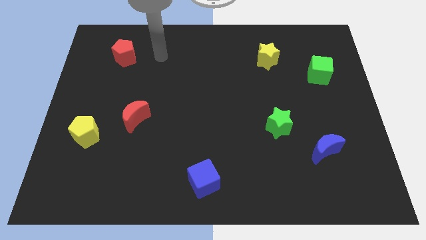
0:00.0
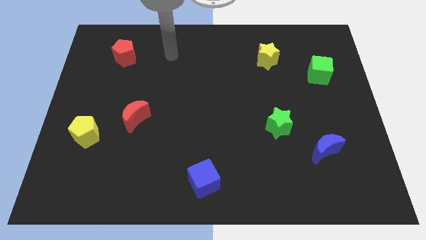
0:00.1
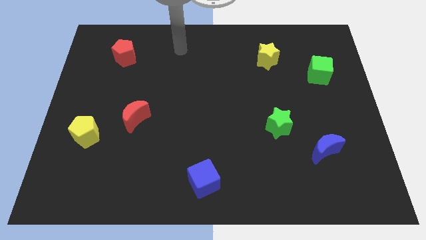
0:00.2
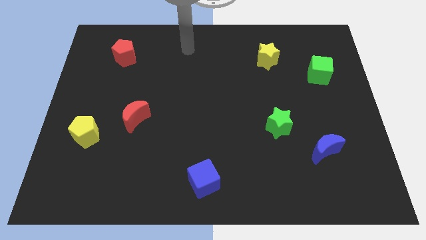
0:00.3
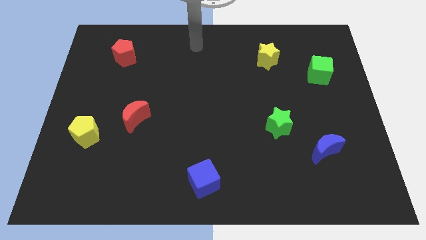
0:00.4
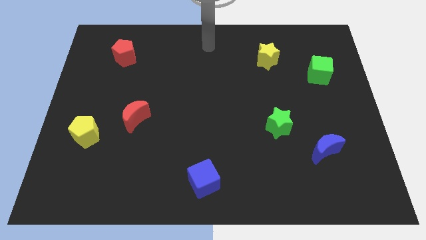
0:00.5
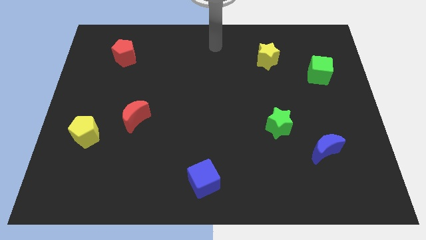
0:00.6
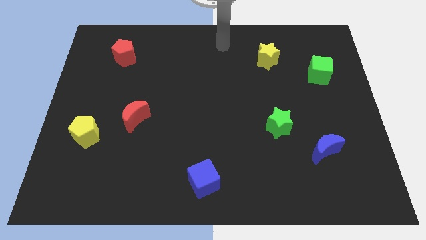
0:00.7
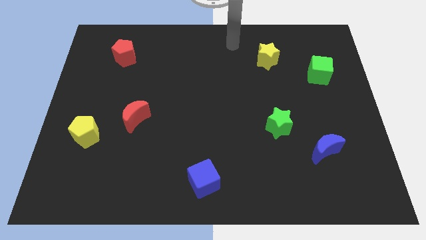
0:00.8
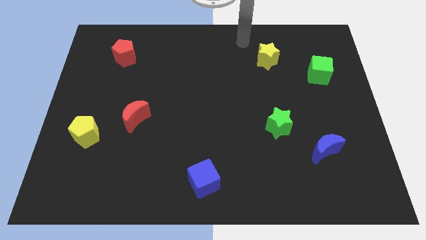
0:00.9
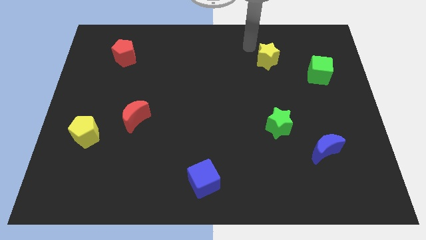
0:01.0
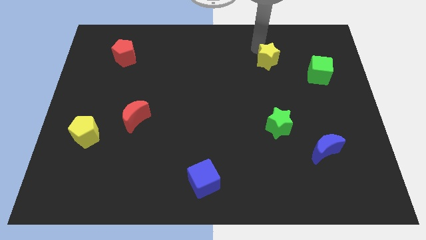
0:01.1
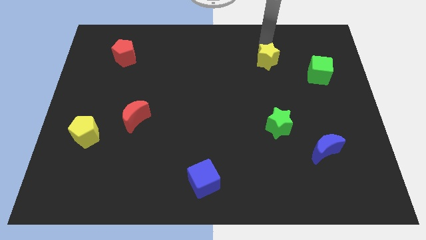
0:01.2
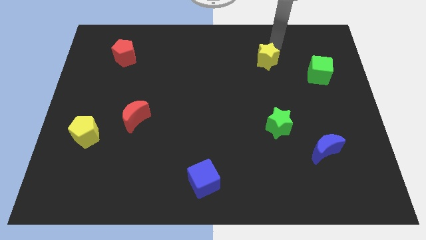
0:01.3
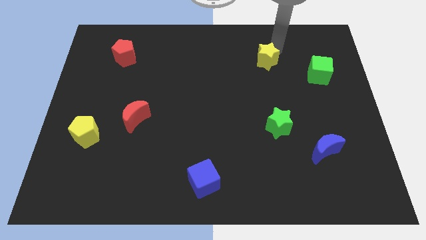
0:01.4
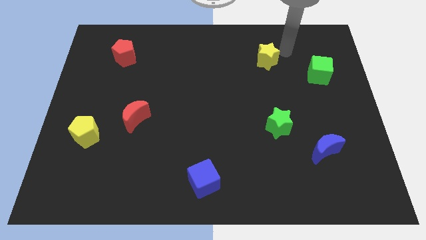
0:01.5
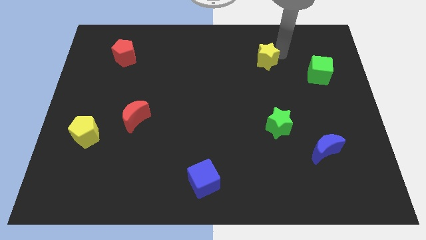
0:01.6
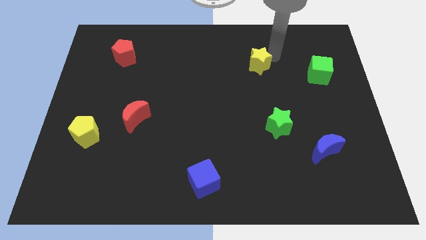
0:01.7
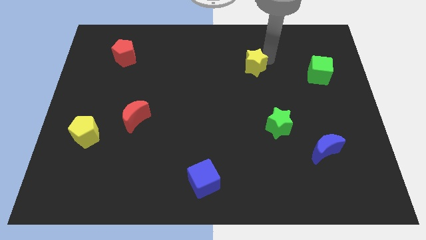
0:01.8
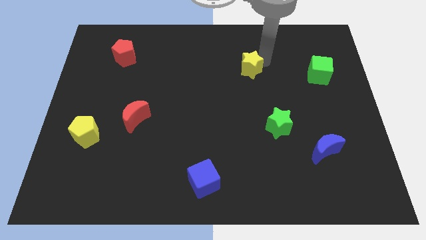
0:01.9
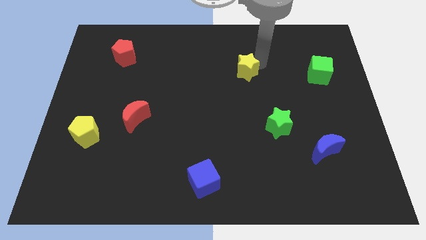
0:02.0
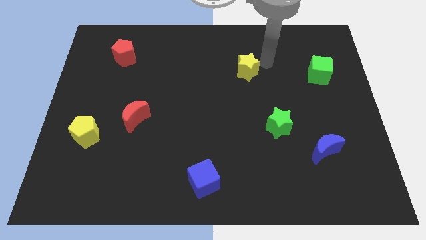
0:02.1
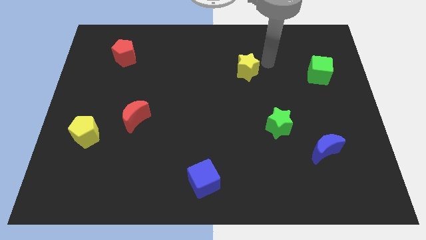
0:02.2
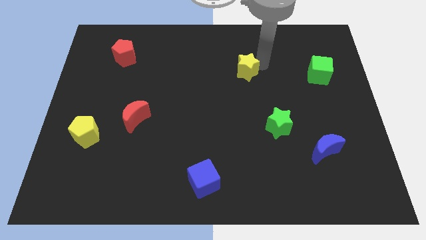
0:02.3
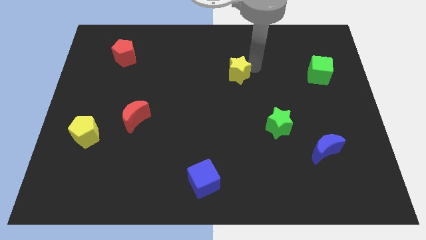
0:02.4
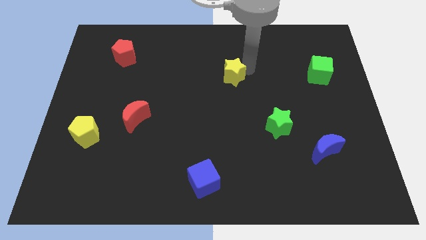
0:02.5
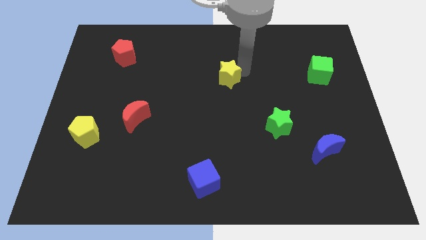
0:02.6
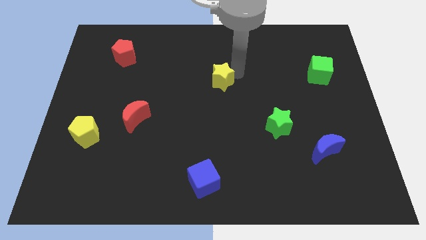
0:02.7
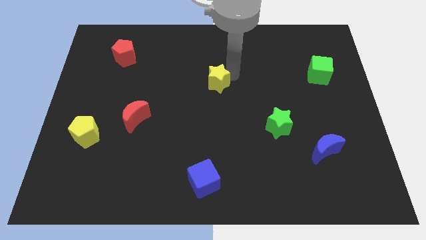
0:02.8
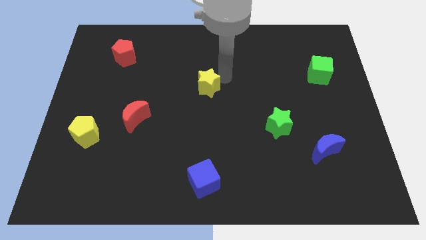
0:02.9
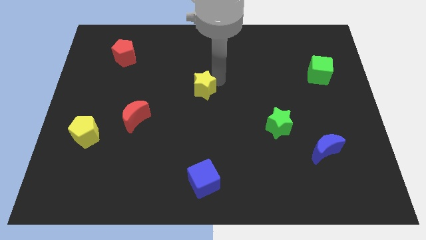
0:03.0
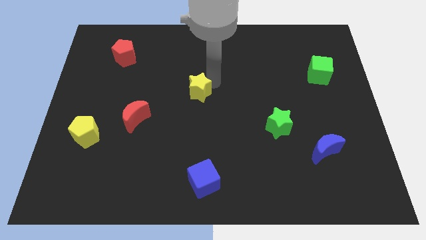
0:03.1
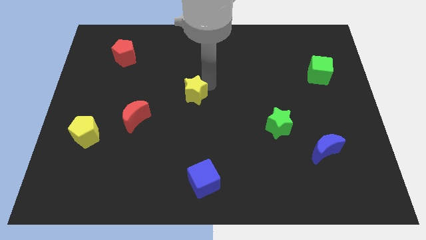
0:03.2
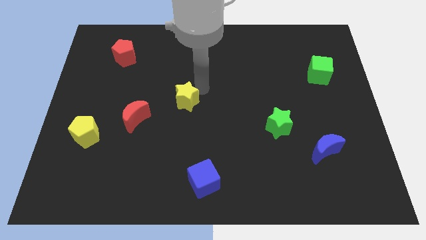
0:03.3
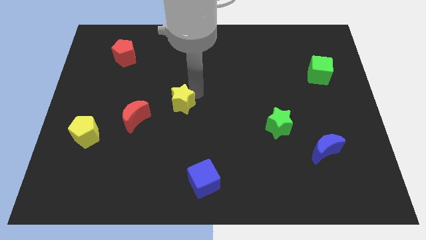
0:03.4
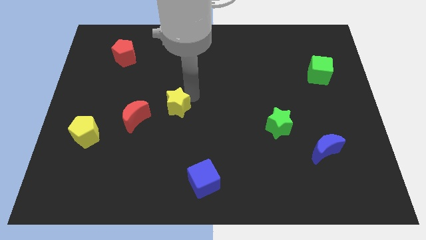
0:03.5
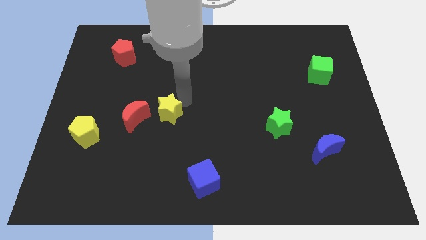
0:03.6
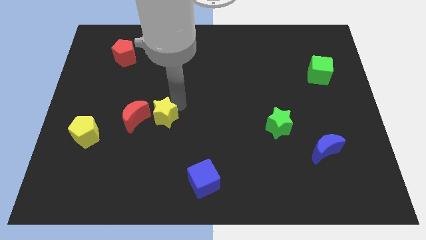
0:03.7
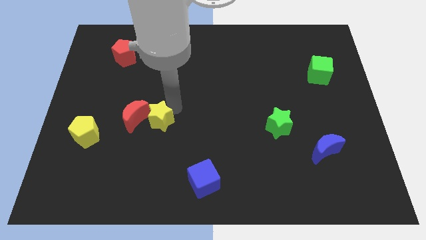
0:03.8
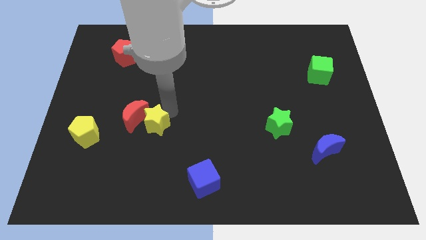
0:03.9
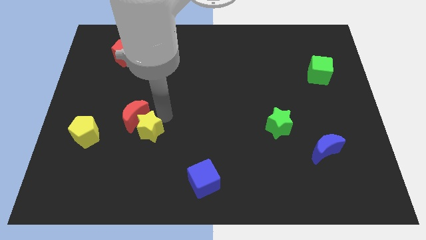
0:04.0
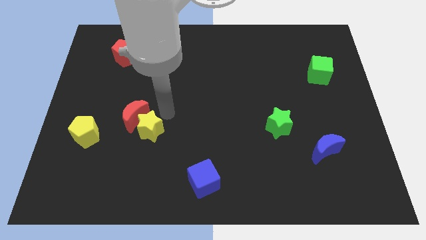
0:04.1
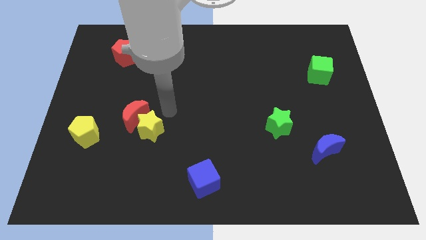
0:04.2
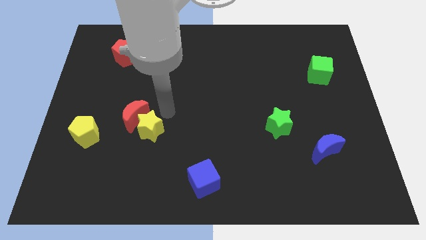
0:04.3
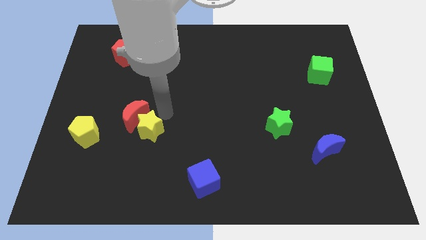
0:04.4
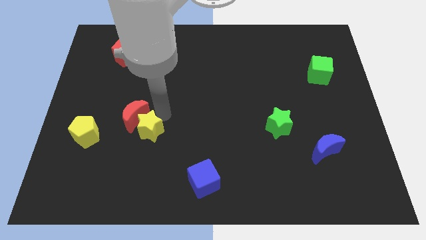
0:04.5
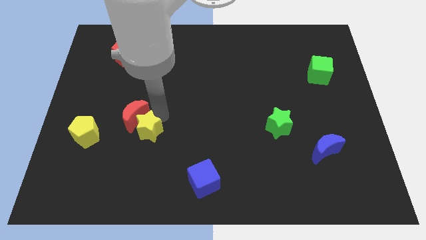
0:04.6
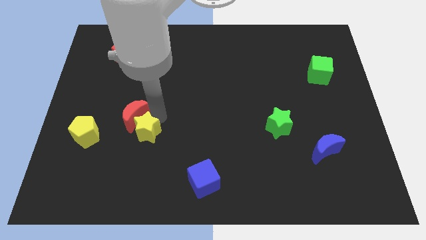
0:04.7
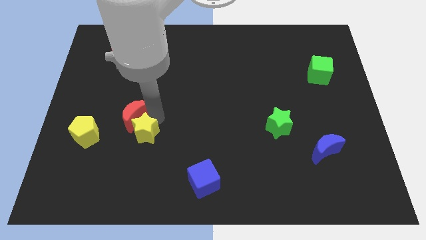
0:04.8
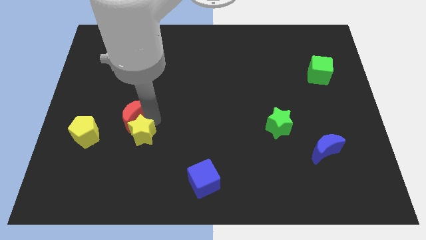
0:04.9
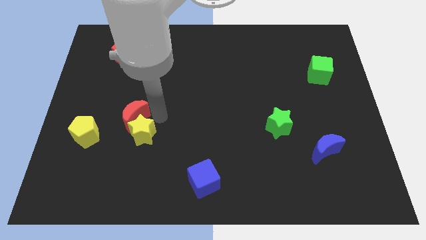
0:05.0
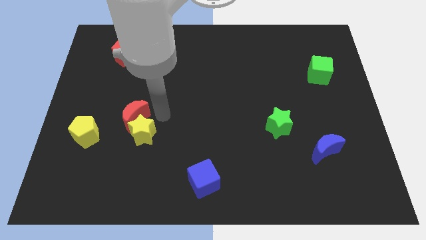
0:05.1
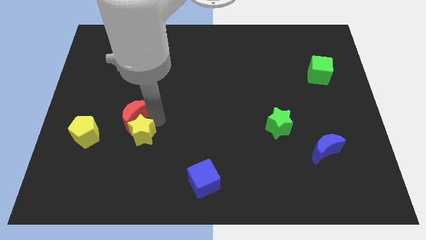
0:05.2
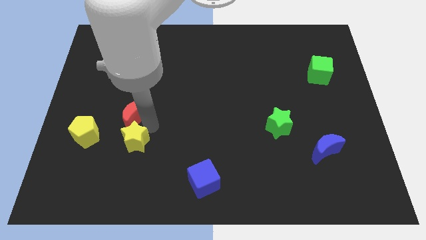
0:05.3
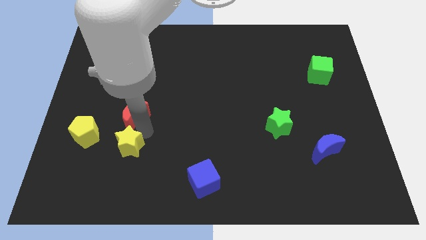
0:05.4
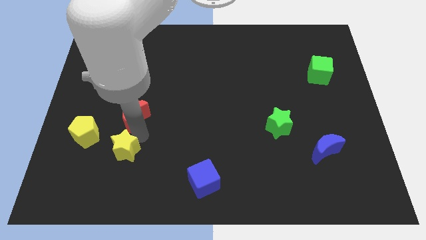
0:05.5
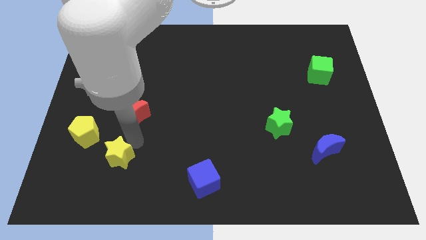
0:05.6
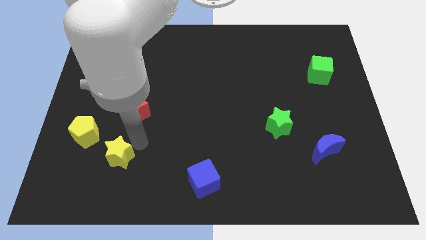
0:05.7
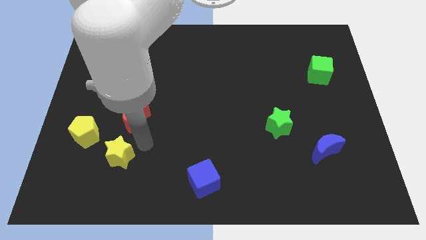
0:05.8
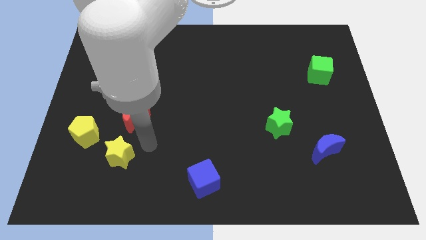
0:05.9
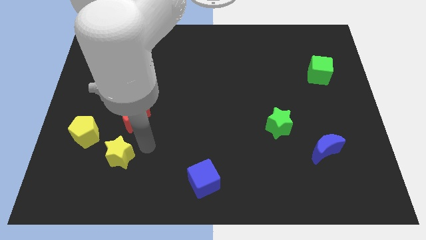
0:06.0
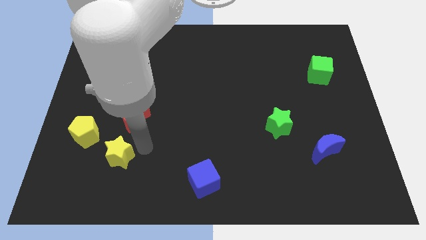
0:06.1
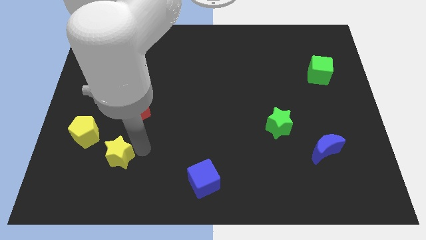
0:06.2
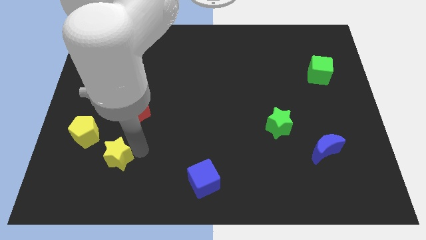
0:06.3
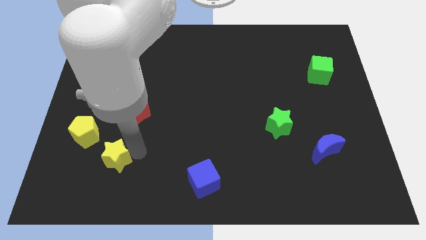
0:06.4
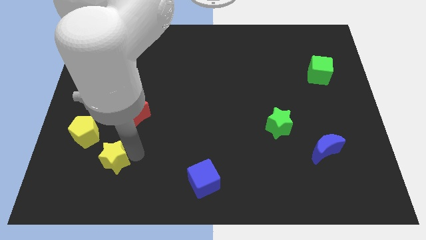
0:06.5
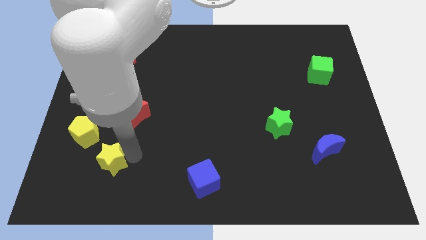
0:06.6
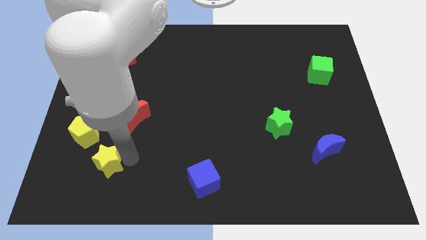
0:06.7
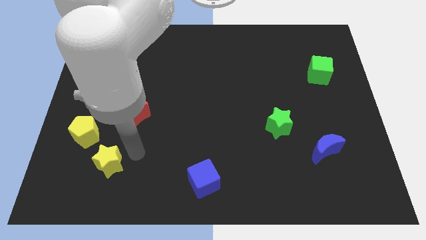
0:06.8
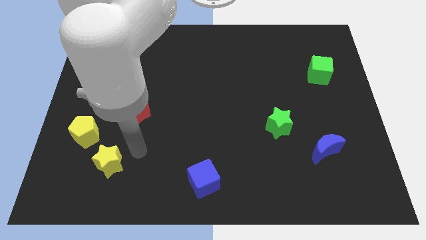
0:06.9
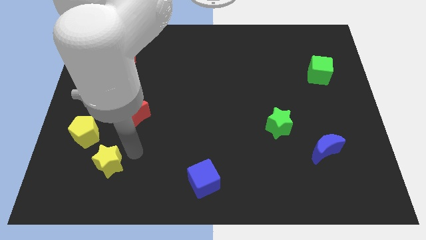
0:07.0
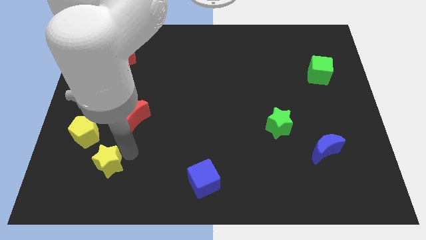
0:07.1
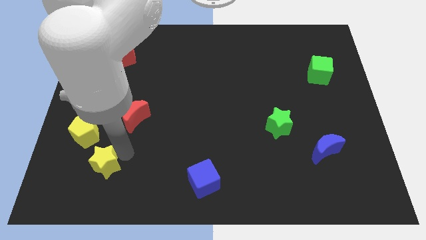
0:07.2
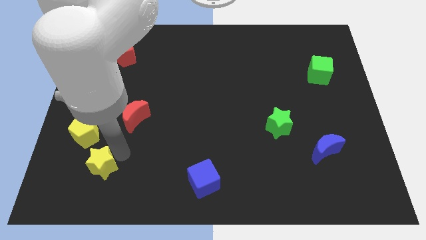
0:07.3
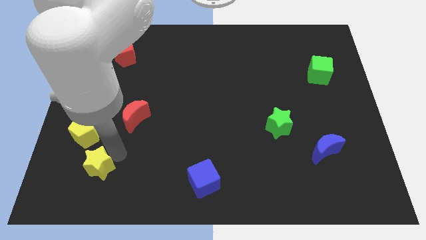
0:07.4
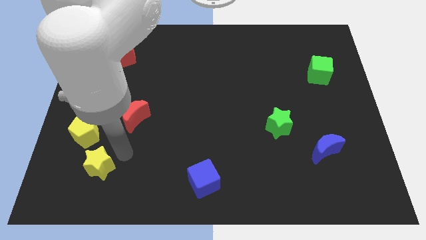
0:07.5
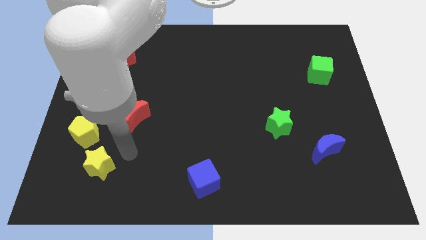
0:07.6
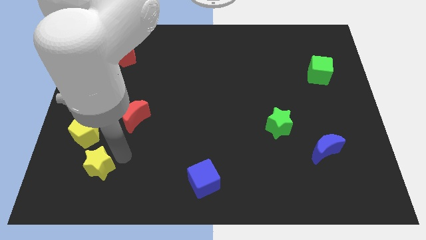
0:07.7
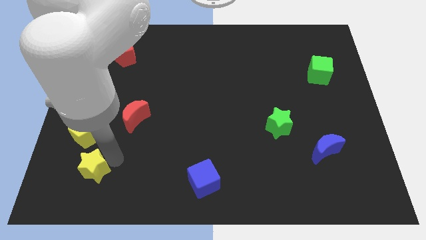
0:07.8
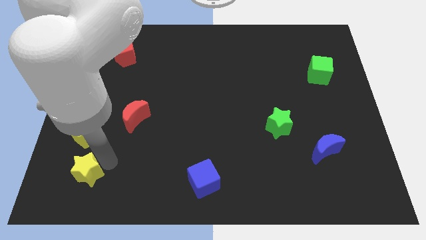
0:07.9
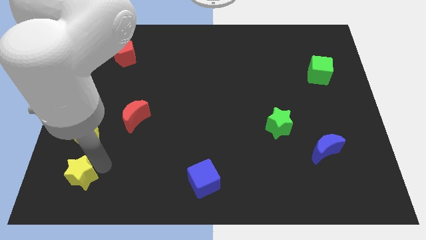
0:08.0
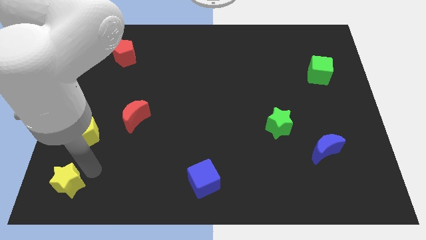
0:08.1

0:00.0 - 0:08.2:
put the yellow star to the bottom left
